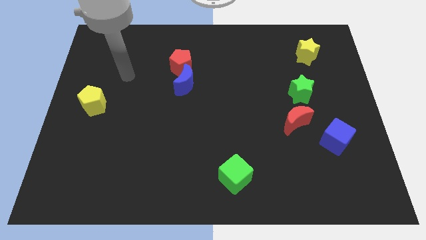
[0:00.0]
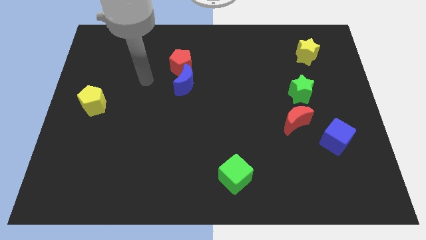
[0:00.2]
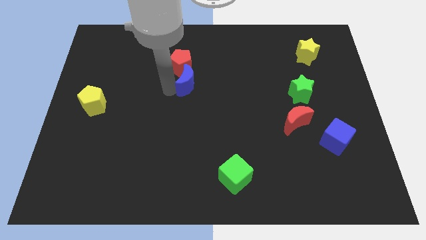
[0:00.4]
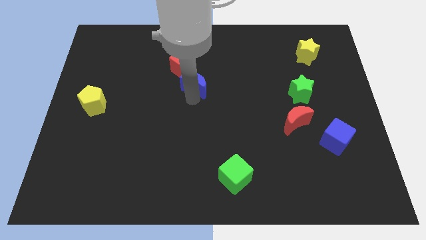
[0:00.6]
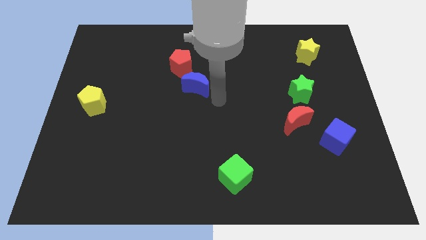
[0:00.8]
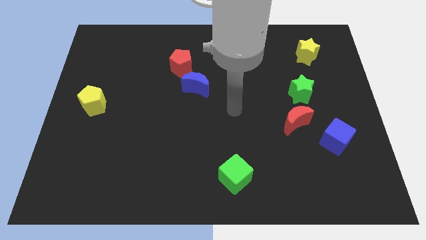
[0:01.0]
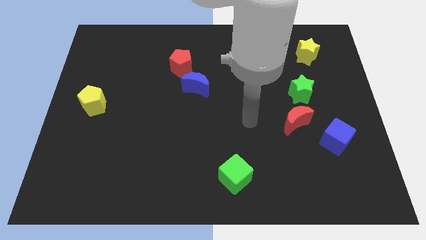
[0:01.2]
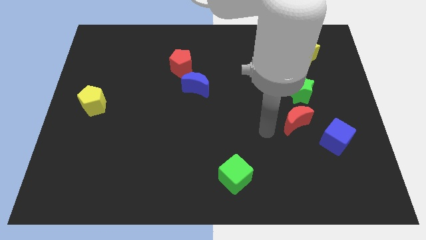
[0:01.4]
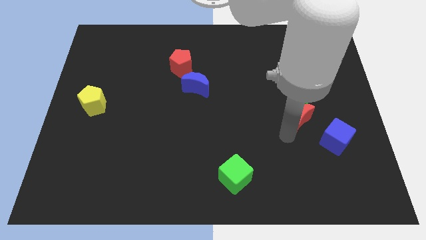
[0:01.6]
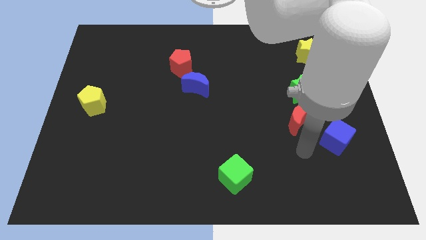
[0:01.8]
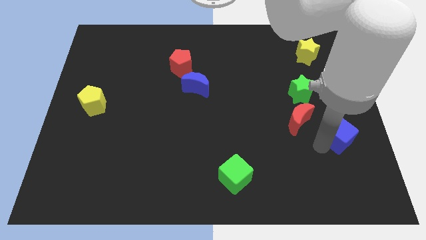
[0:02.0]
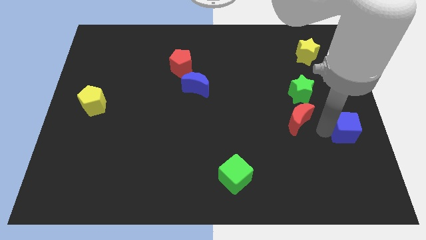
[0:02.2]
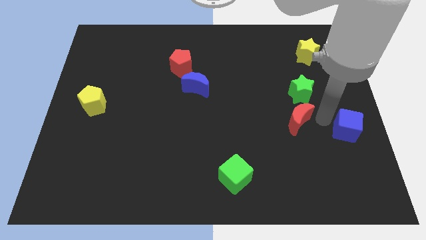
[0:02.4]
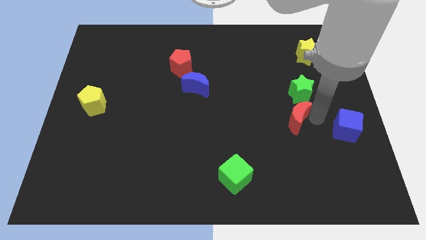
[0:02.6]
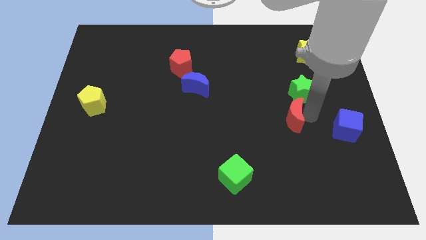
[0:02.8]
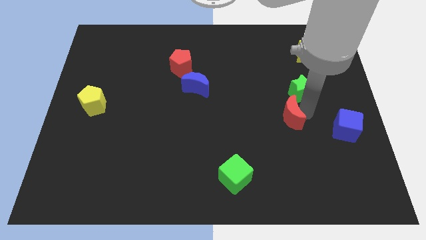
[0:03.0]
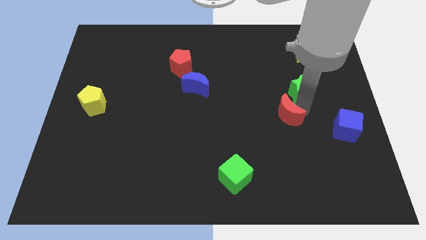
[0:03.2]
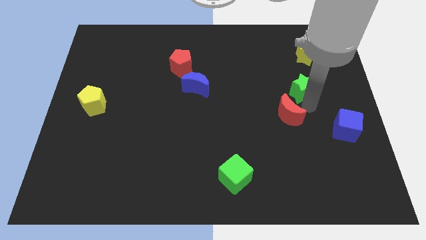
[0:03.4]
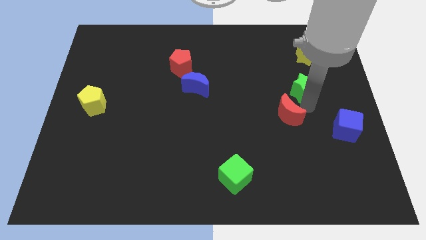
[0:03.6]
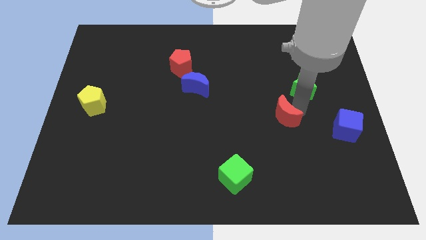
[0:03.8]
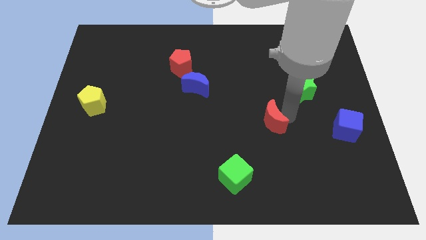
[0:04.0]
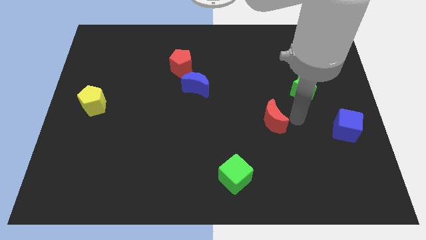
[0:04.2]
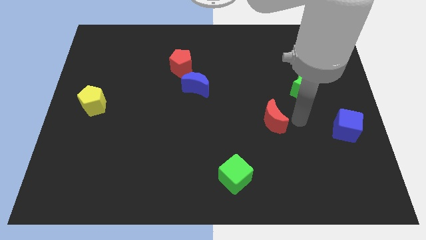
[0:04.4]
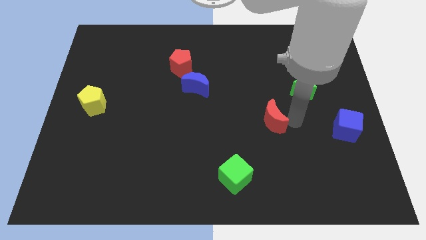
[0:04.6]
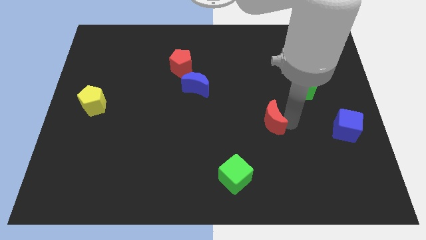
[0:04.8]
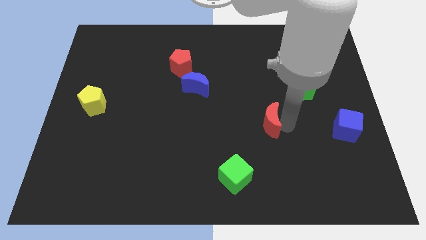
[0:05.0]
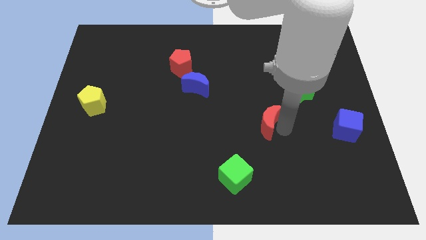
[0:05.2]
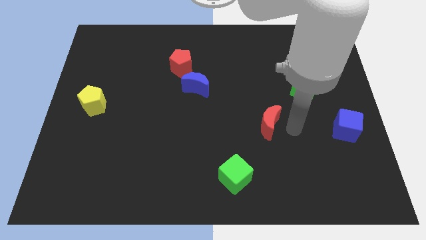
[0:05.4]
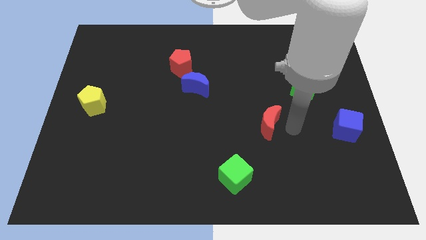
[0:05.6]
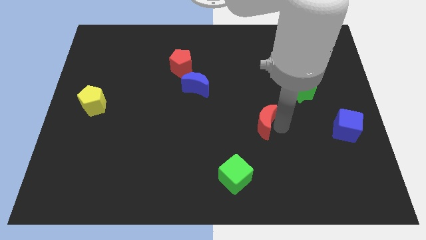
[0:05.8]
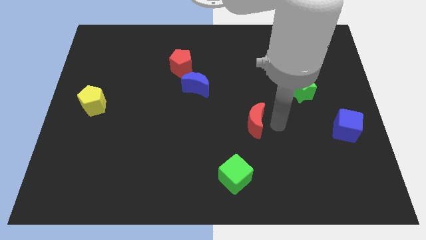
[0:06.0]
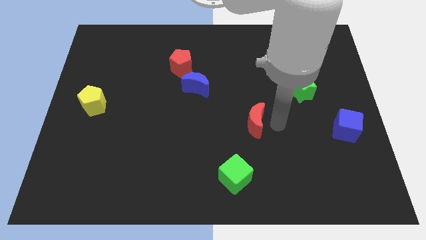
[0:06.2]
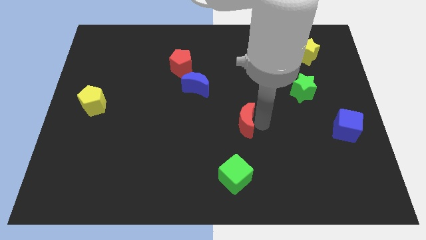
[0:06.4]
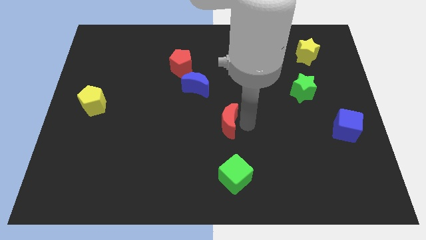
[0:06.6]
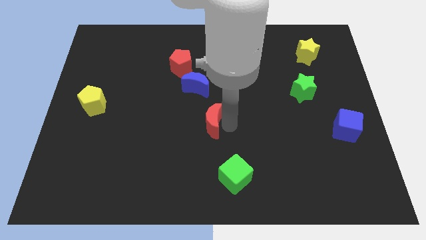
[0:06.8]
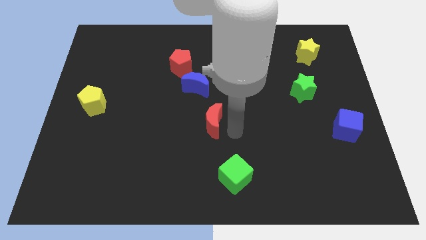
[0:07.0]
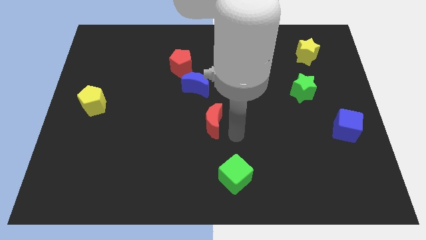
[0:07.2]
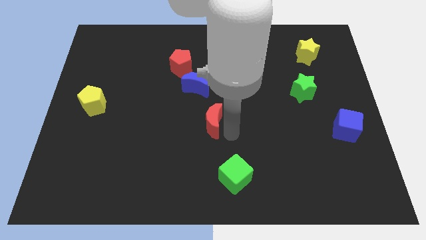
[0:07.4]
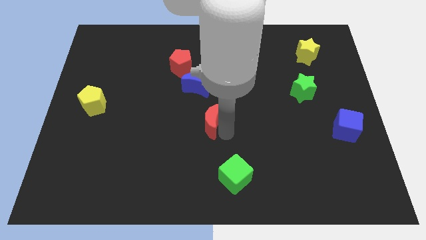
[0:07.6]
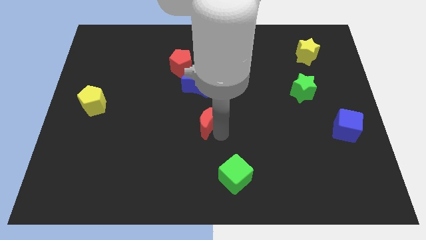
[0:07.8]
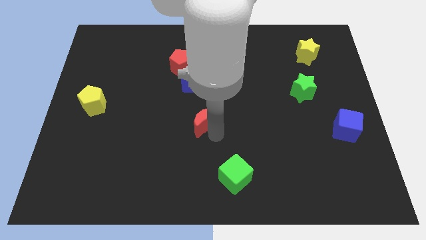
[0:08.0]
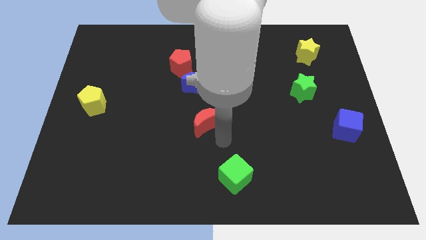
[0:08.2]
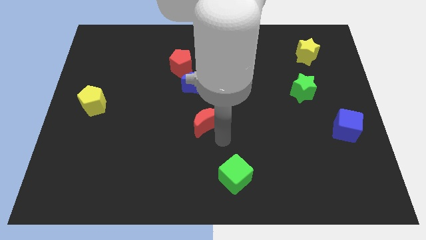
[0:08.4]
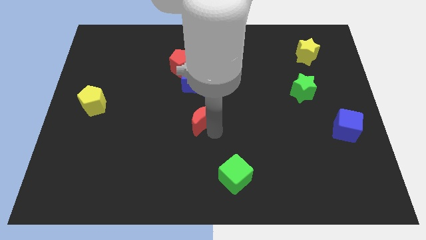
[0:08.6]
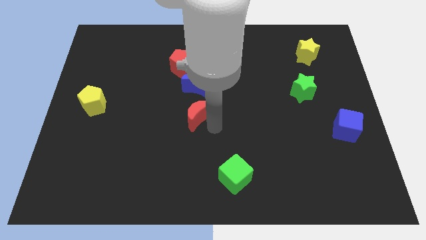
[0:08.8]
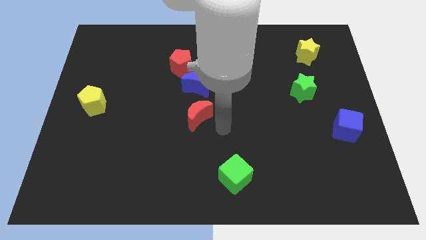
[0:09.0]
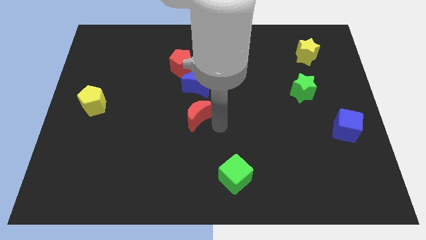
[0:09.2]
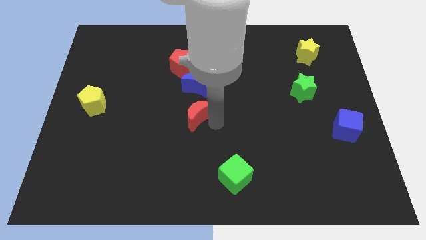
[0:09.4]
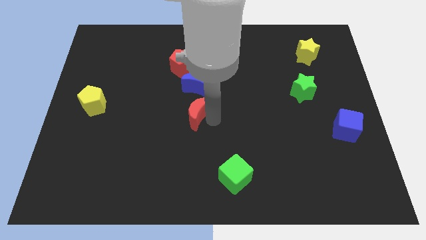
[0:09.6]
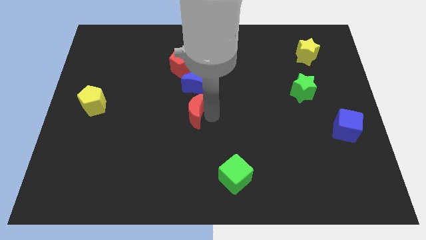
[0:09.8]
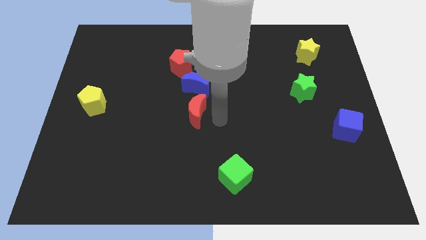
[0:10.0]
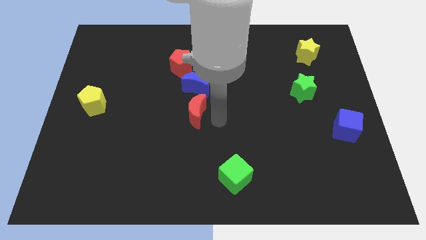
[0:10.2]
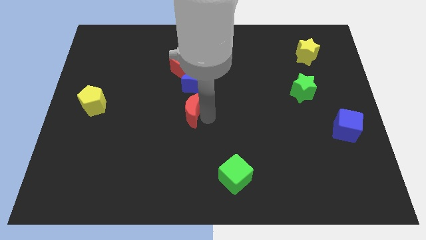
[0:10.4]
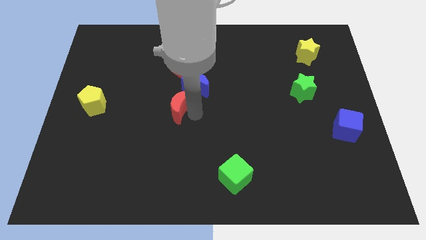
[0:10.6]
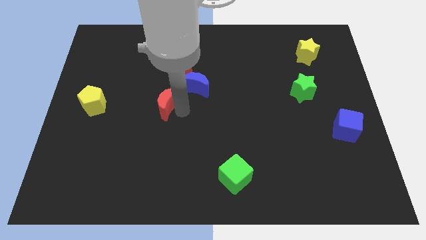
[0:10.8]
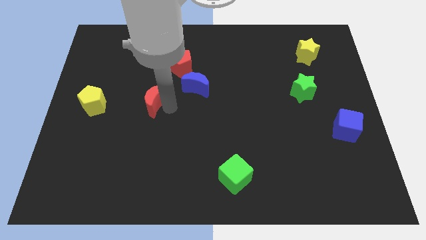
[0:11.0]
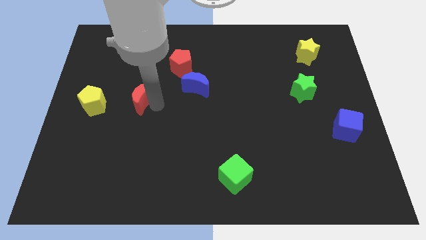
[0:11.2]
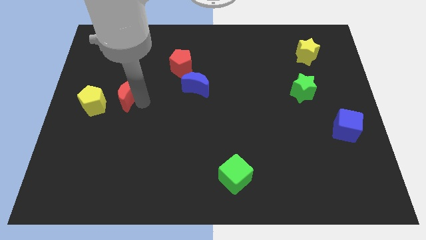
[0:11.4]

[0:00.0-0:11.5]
put the red moon diagonally up and to the right of the yellow pentagon

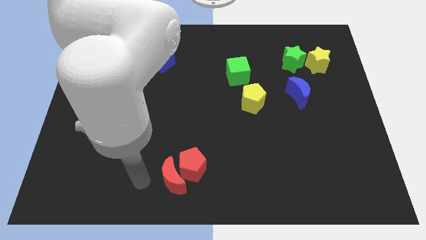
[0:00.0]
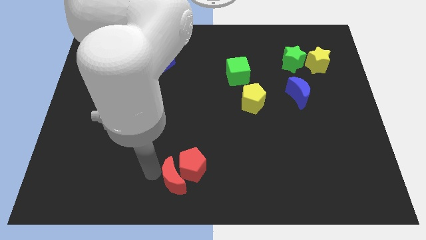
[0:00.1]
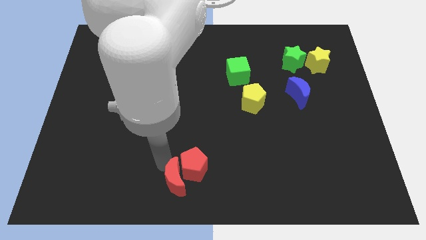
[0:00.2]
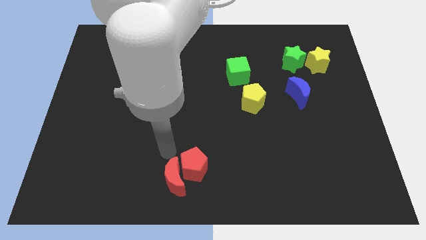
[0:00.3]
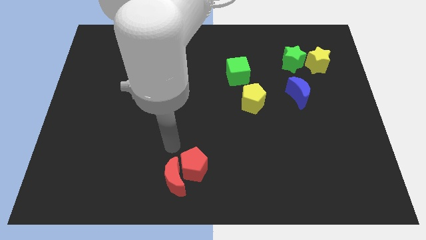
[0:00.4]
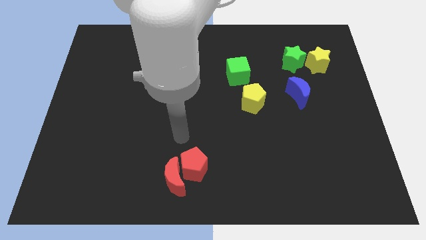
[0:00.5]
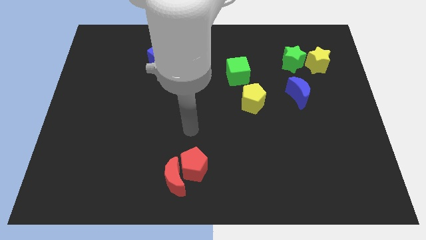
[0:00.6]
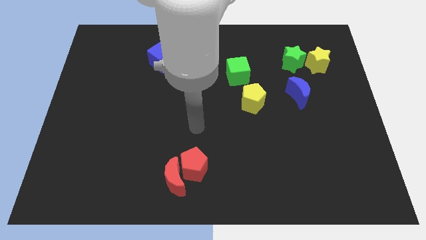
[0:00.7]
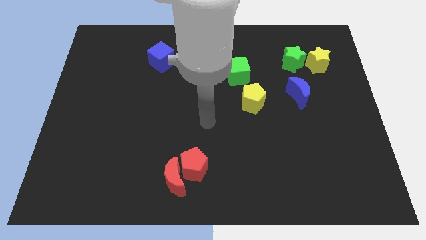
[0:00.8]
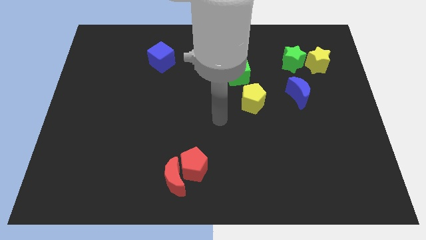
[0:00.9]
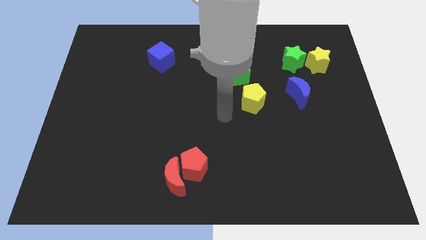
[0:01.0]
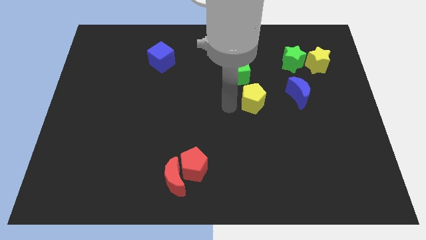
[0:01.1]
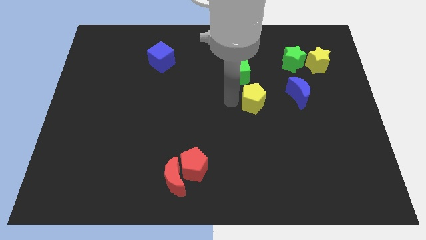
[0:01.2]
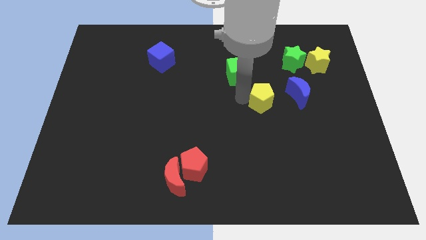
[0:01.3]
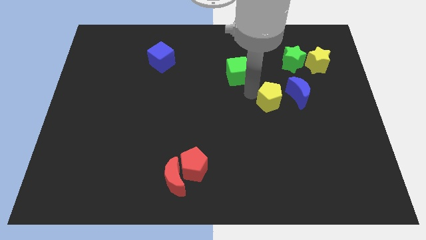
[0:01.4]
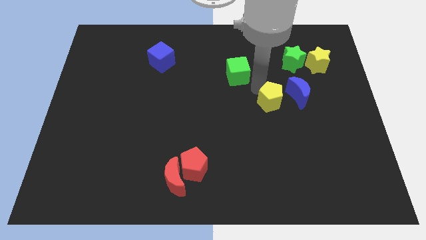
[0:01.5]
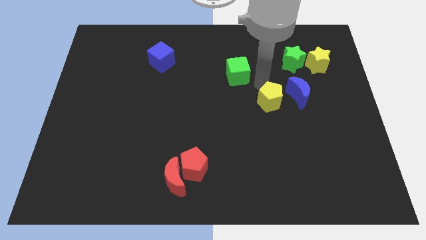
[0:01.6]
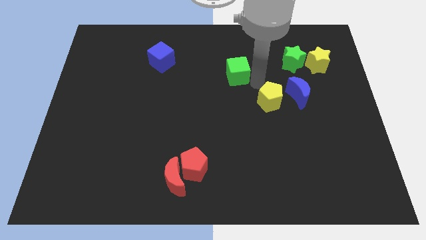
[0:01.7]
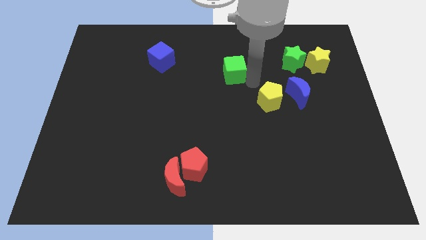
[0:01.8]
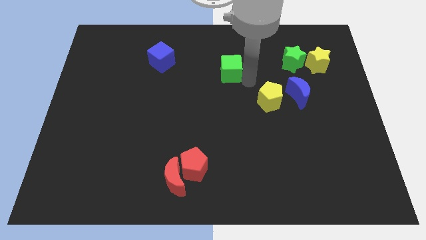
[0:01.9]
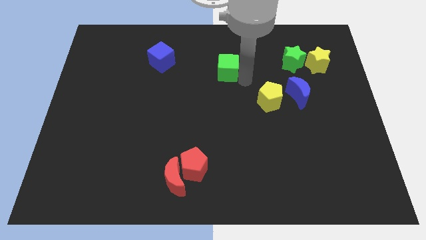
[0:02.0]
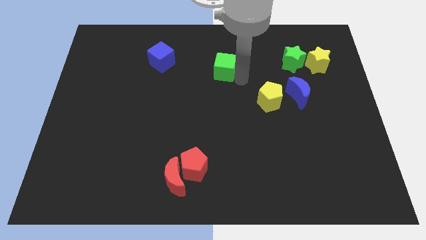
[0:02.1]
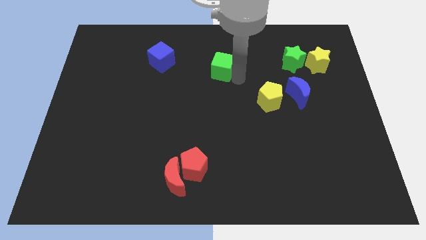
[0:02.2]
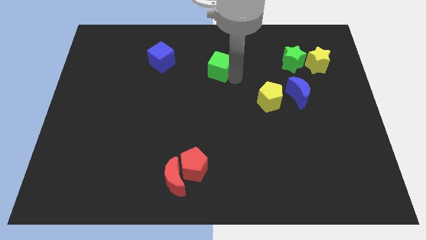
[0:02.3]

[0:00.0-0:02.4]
push the green cube just right of the blue cube

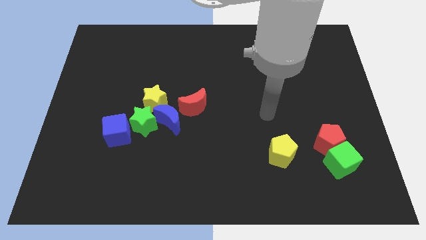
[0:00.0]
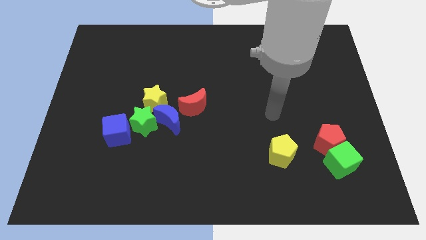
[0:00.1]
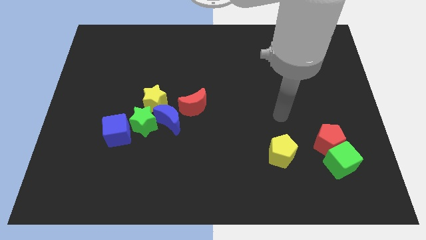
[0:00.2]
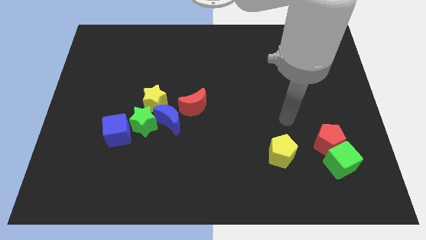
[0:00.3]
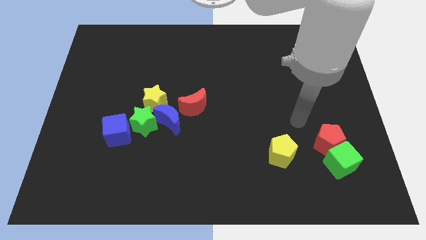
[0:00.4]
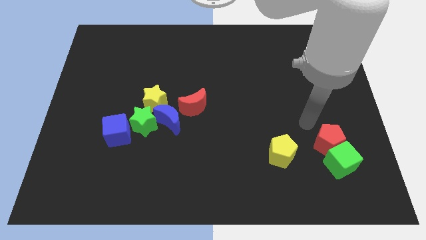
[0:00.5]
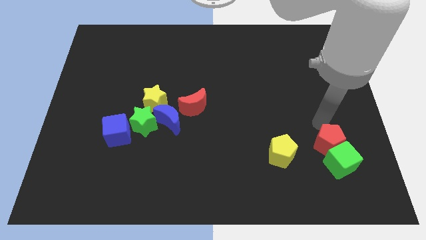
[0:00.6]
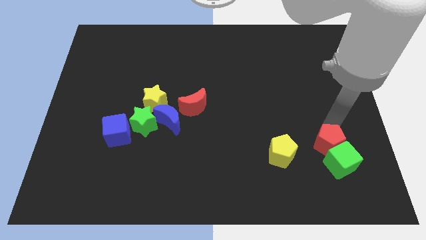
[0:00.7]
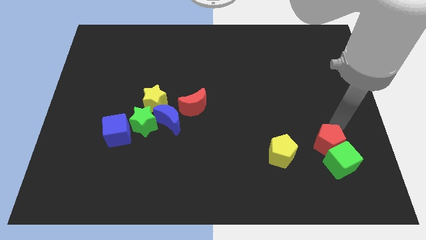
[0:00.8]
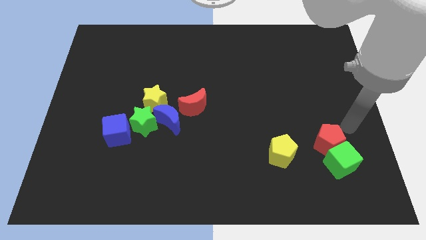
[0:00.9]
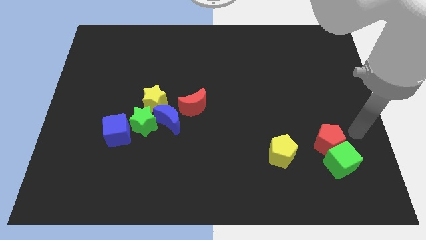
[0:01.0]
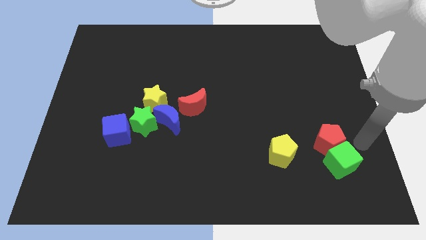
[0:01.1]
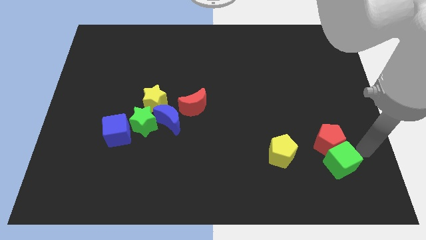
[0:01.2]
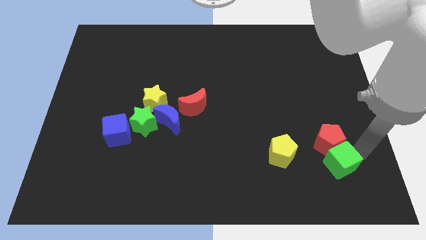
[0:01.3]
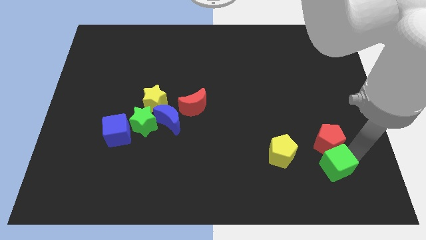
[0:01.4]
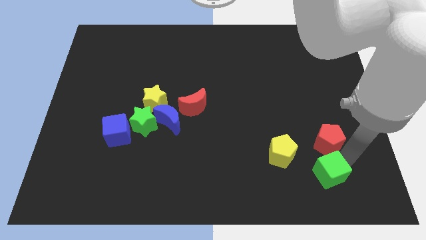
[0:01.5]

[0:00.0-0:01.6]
push the green cube diagonally down and to the right of the yellow pentagon
